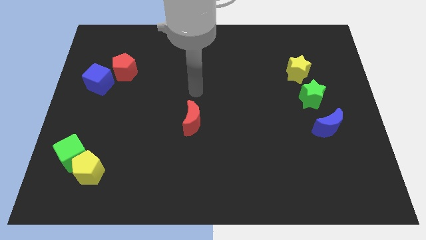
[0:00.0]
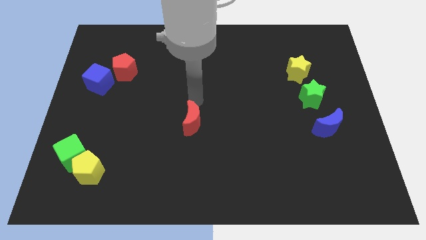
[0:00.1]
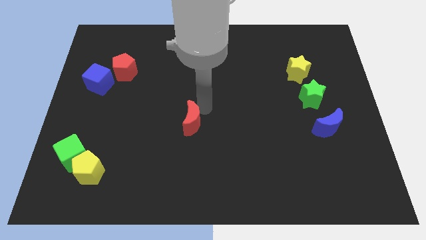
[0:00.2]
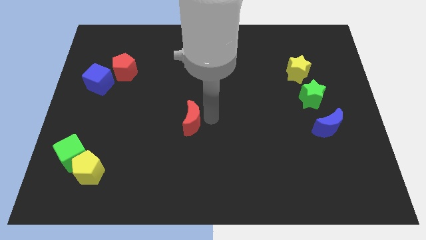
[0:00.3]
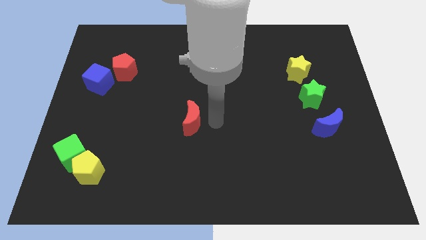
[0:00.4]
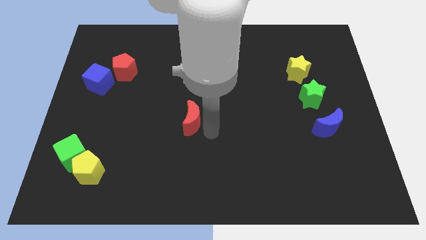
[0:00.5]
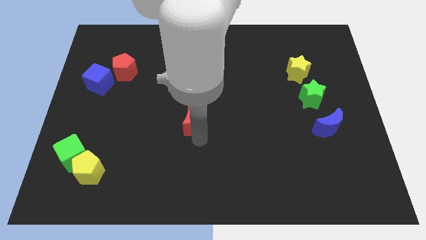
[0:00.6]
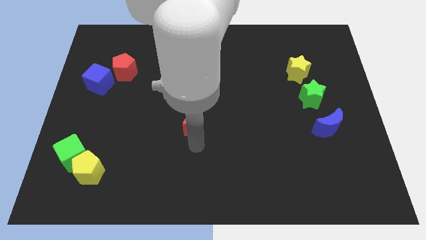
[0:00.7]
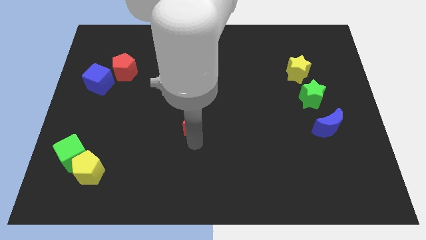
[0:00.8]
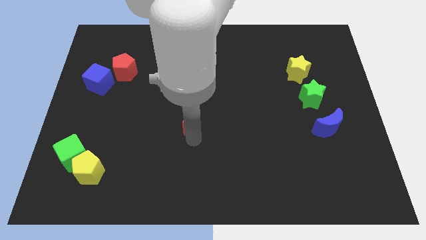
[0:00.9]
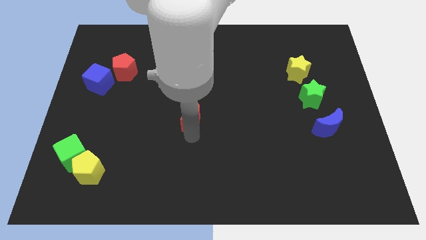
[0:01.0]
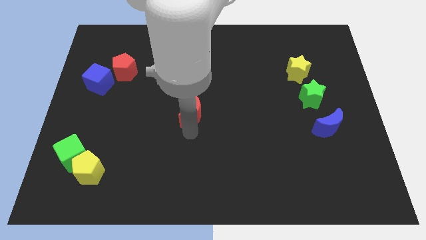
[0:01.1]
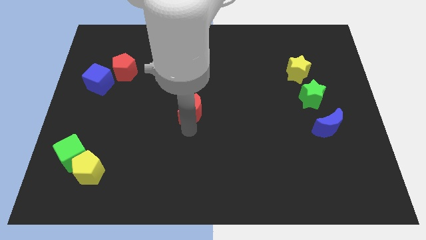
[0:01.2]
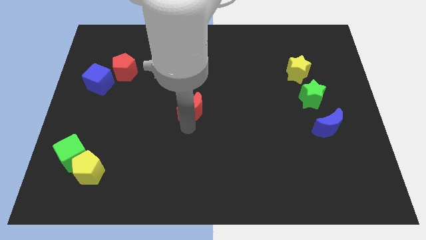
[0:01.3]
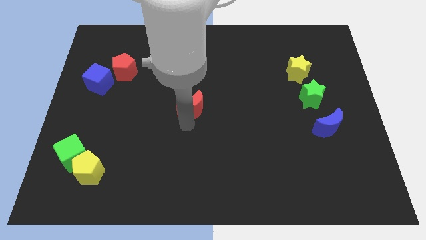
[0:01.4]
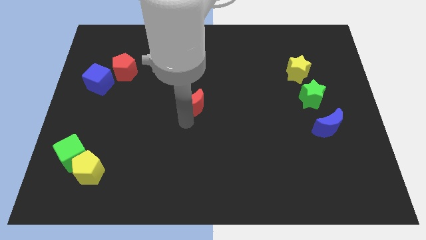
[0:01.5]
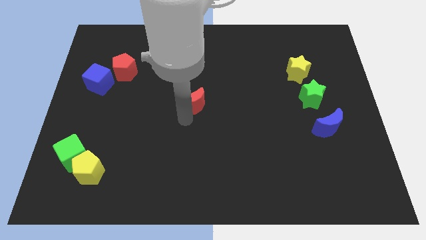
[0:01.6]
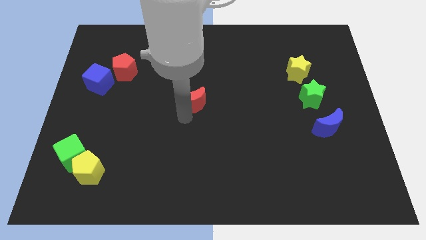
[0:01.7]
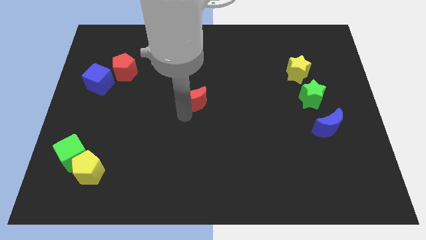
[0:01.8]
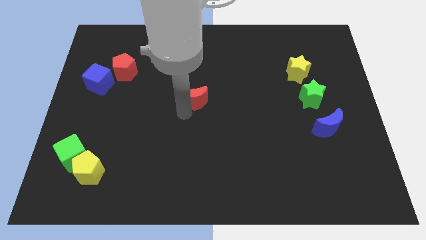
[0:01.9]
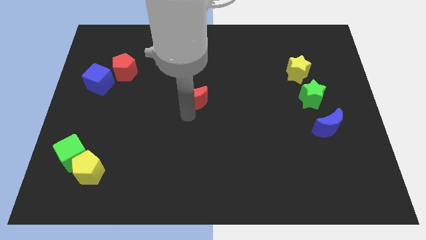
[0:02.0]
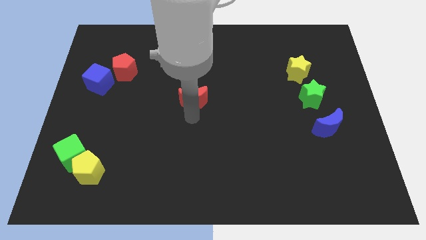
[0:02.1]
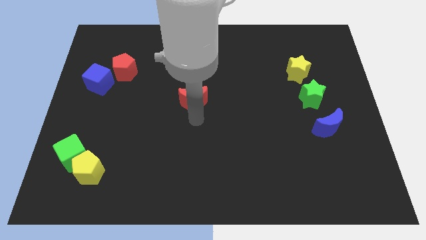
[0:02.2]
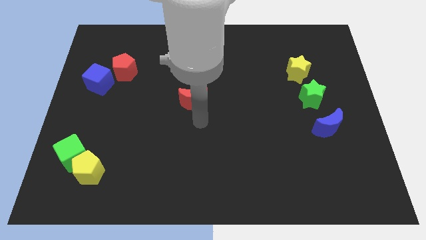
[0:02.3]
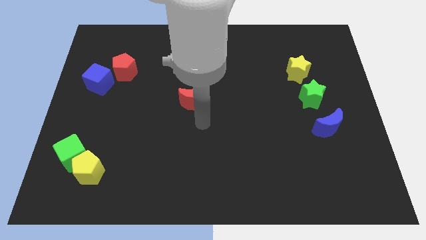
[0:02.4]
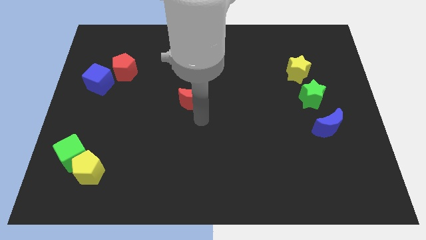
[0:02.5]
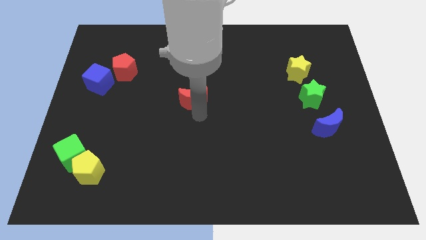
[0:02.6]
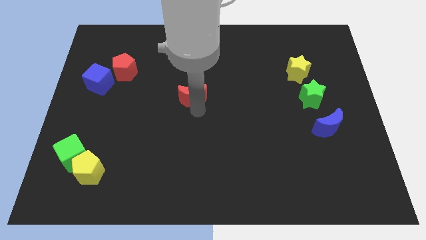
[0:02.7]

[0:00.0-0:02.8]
push the red moon up a little

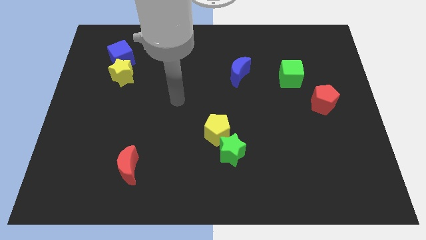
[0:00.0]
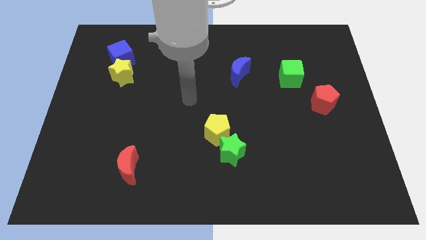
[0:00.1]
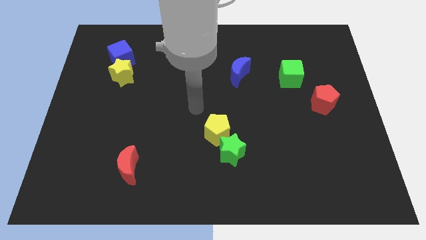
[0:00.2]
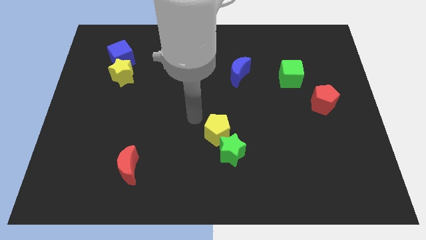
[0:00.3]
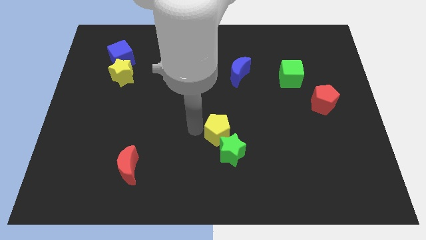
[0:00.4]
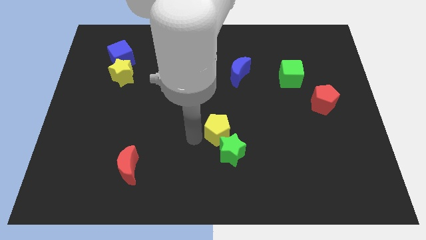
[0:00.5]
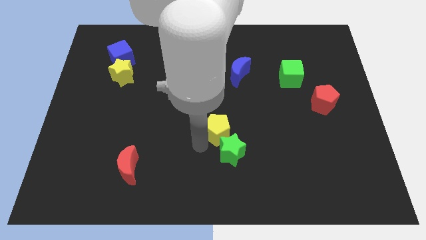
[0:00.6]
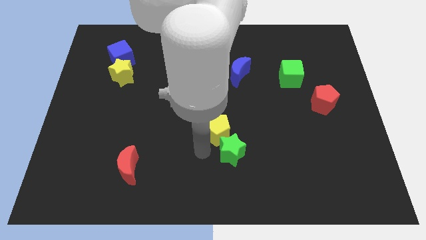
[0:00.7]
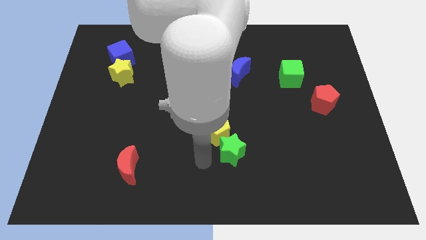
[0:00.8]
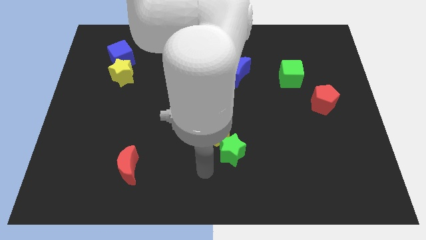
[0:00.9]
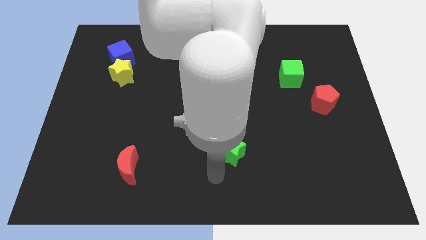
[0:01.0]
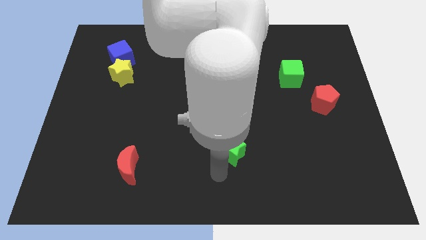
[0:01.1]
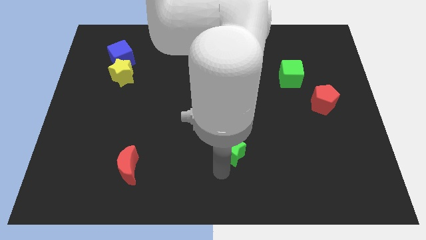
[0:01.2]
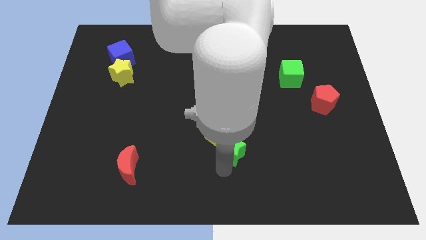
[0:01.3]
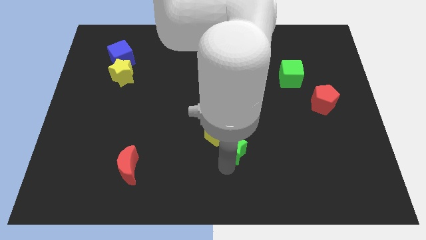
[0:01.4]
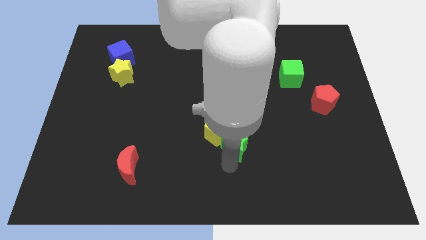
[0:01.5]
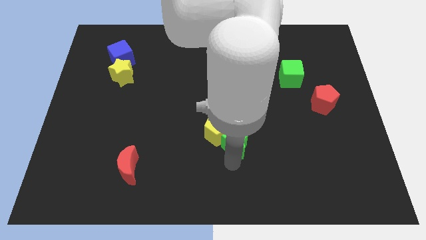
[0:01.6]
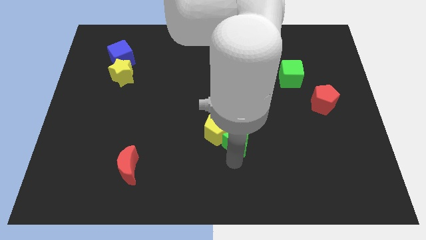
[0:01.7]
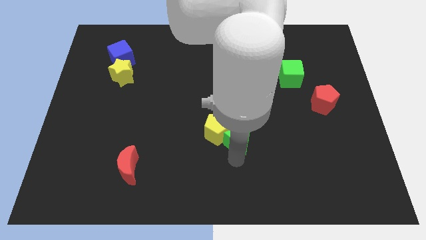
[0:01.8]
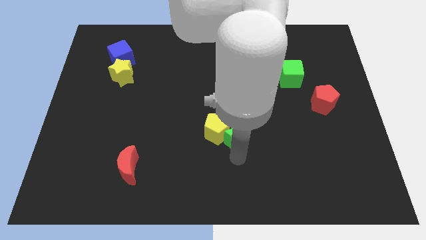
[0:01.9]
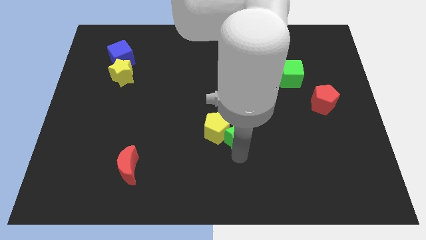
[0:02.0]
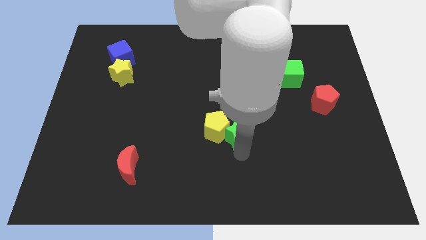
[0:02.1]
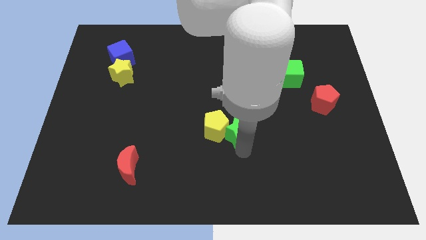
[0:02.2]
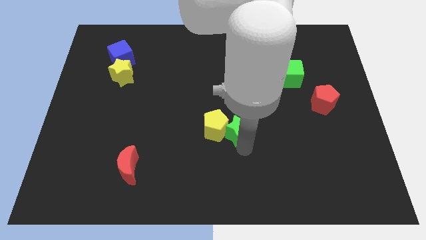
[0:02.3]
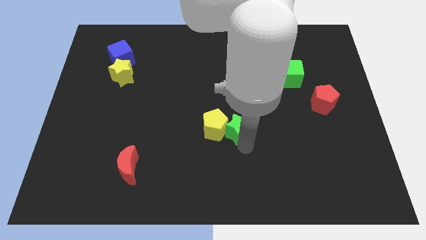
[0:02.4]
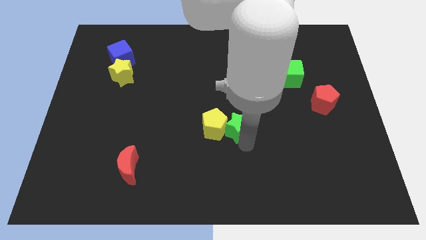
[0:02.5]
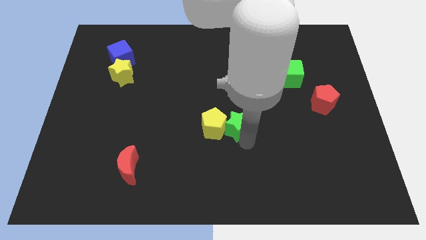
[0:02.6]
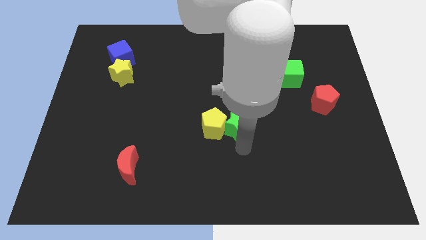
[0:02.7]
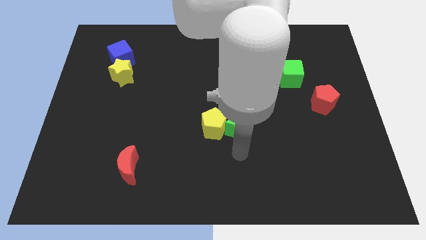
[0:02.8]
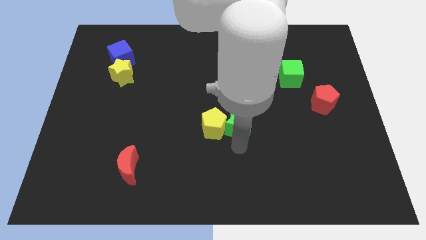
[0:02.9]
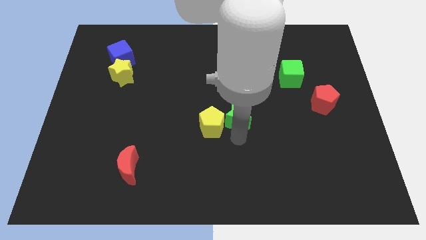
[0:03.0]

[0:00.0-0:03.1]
move the green star upwards a bit

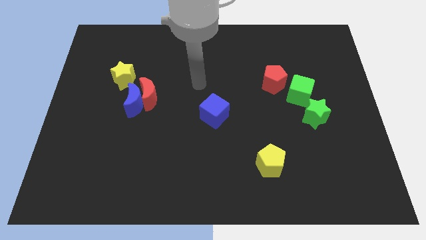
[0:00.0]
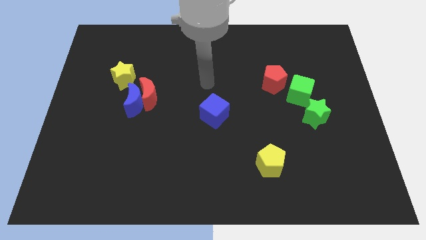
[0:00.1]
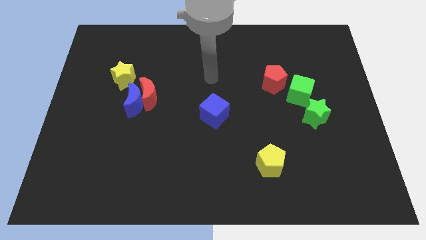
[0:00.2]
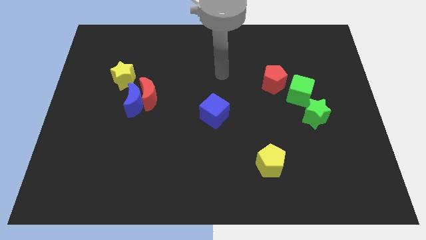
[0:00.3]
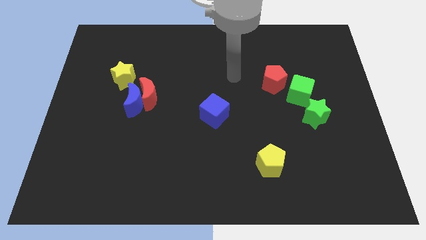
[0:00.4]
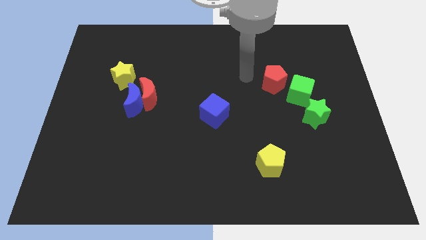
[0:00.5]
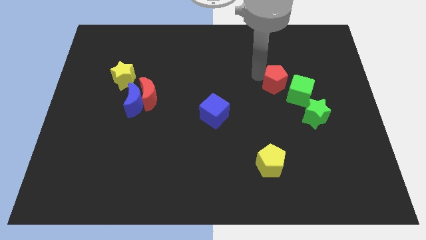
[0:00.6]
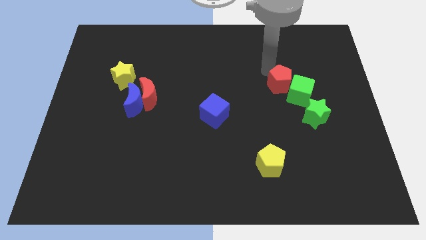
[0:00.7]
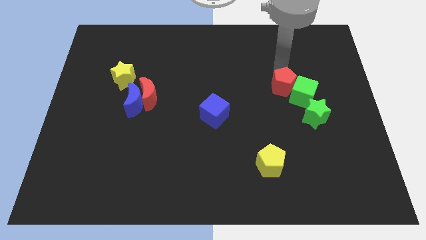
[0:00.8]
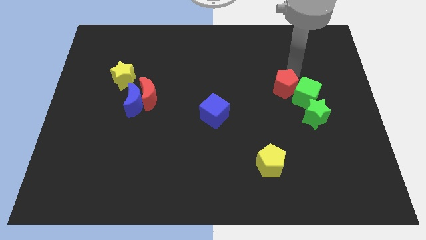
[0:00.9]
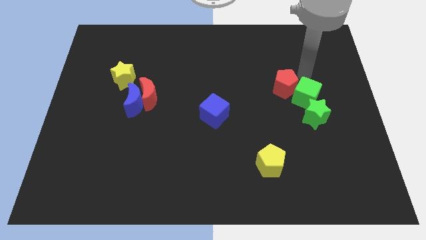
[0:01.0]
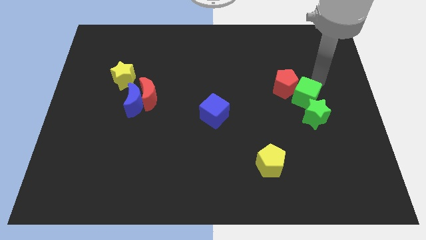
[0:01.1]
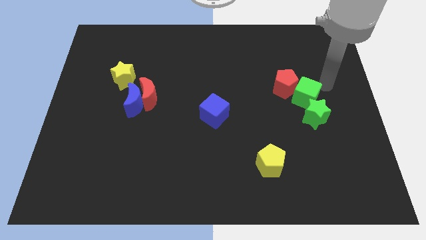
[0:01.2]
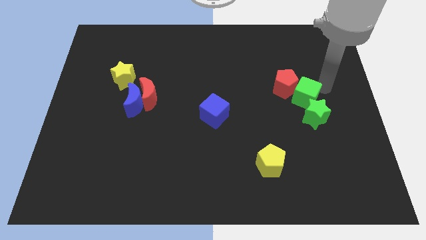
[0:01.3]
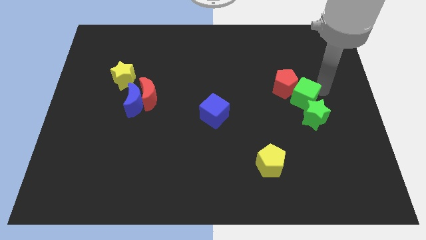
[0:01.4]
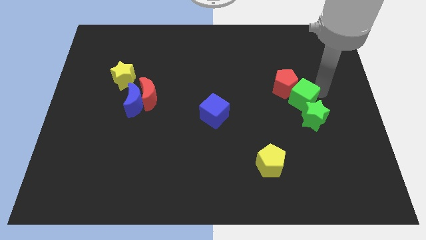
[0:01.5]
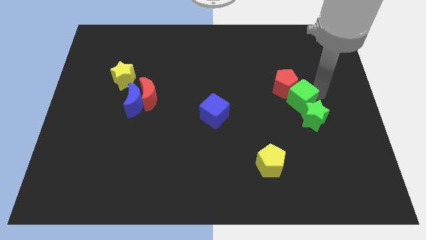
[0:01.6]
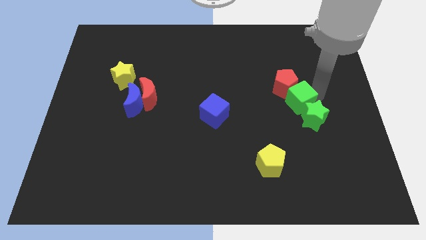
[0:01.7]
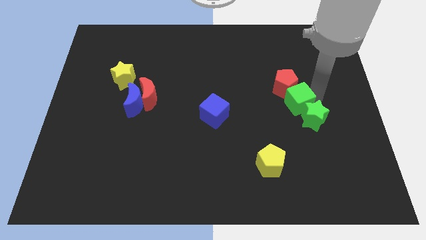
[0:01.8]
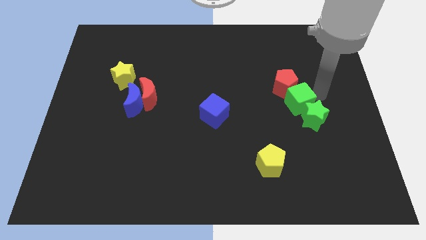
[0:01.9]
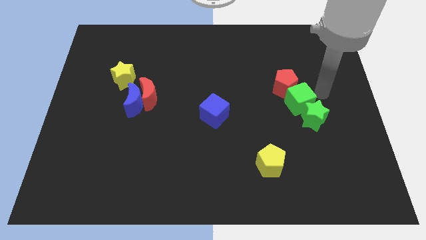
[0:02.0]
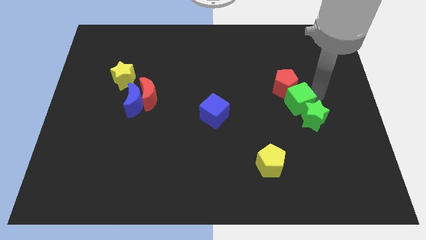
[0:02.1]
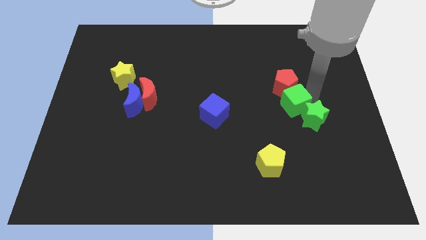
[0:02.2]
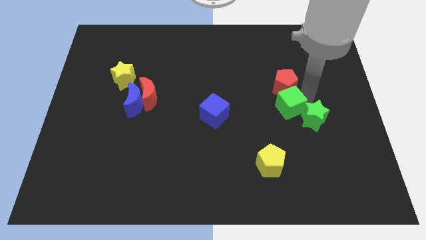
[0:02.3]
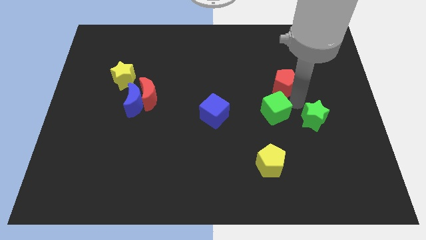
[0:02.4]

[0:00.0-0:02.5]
move the green cube somewhat down and then to the left

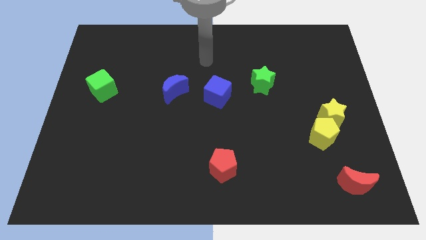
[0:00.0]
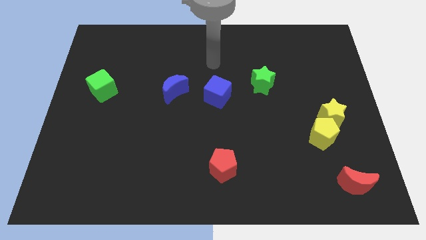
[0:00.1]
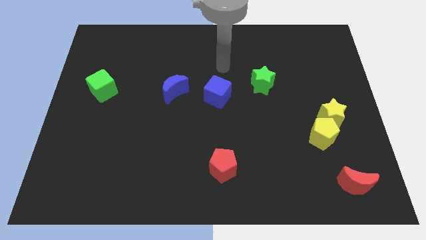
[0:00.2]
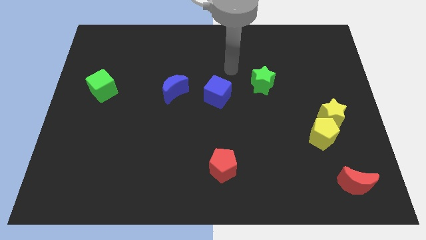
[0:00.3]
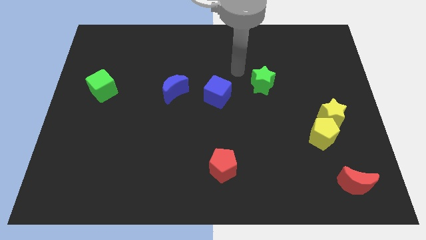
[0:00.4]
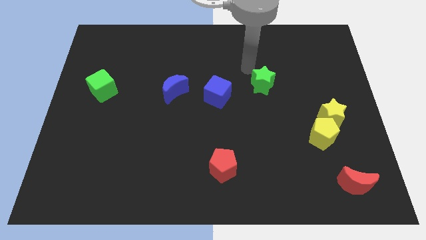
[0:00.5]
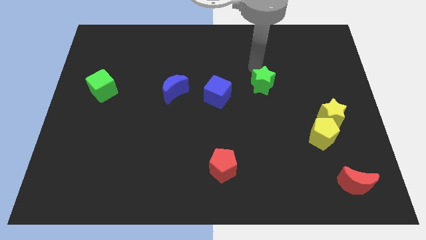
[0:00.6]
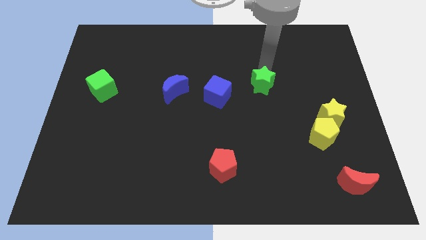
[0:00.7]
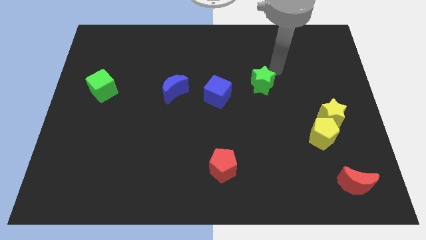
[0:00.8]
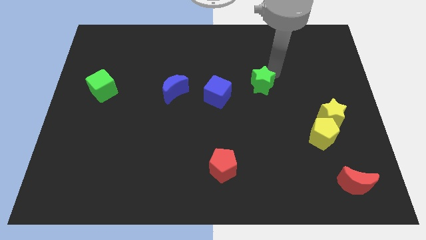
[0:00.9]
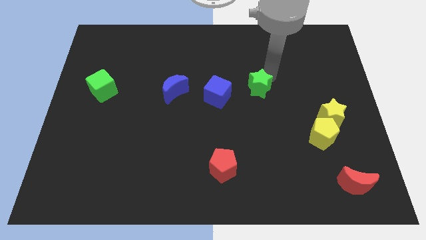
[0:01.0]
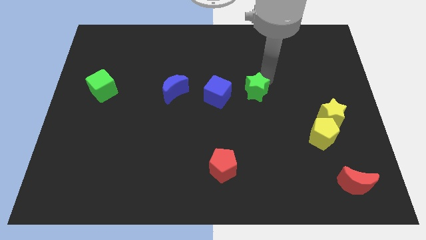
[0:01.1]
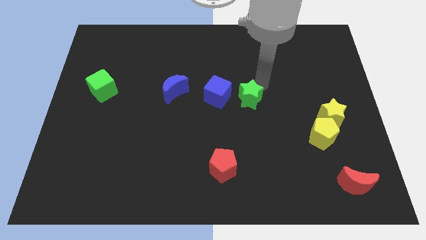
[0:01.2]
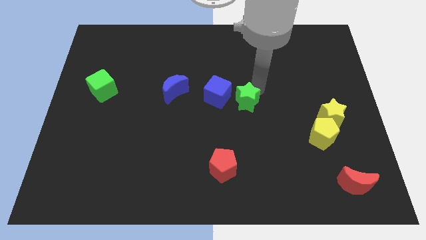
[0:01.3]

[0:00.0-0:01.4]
push the green star somewhat downwards and left
